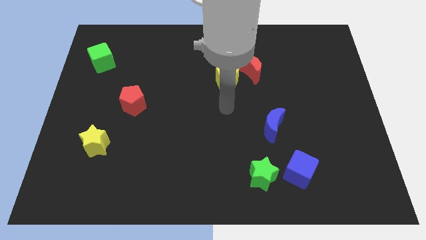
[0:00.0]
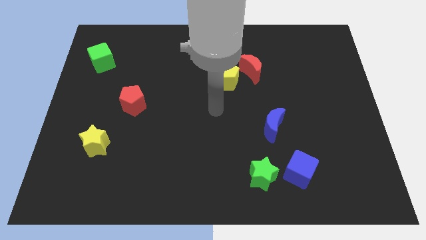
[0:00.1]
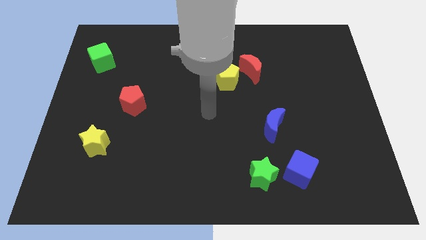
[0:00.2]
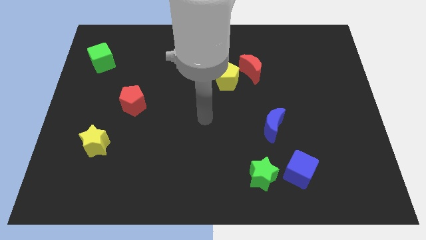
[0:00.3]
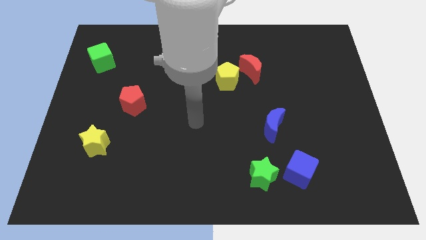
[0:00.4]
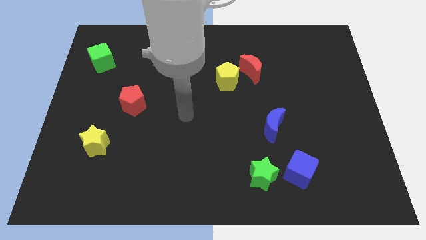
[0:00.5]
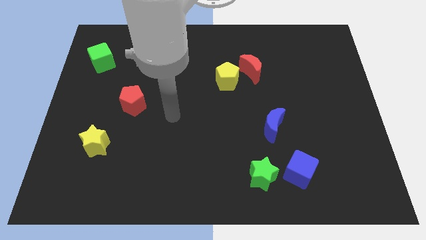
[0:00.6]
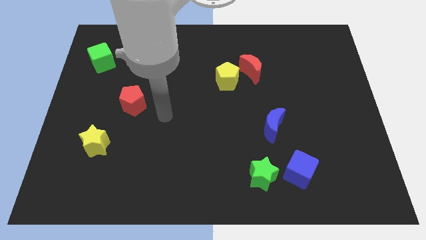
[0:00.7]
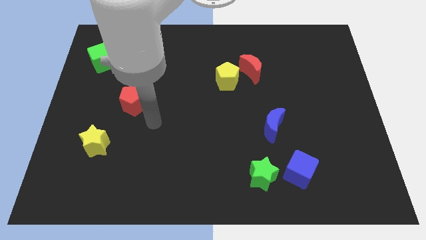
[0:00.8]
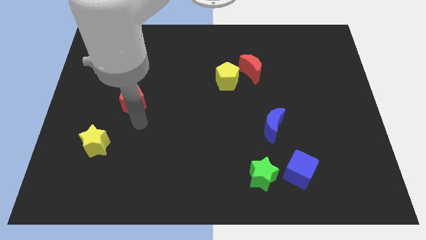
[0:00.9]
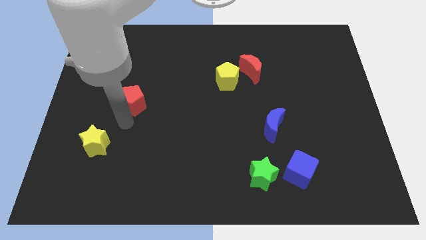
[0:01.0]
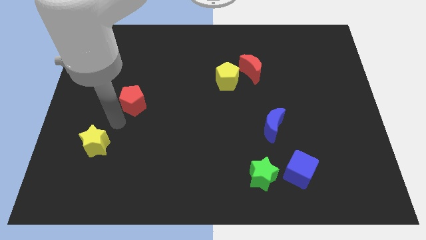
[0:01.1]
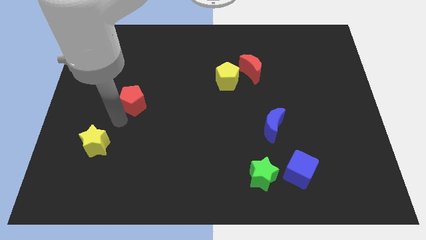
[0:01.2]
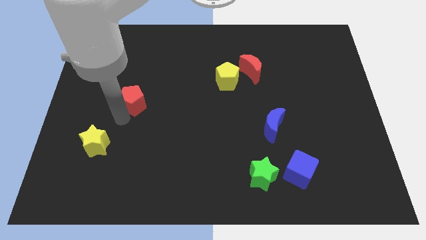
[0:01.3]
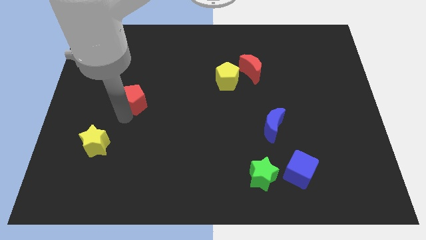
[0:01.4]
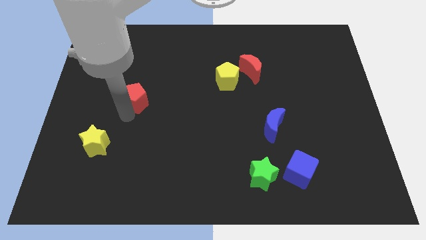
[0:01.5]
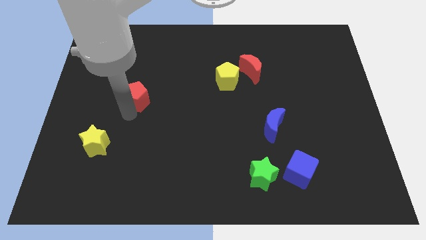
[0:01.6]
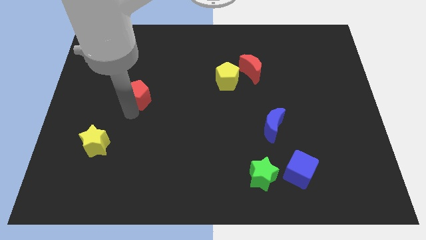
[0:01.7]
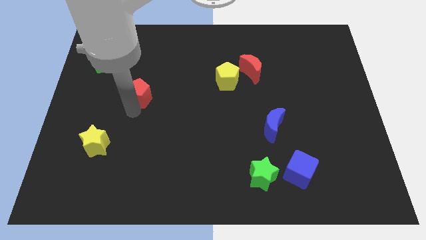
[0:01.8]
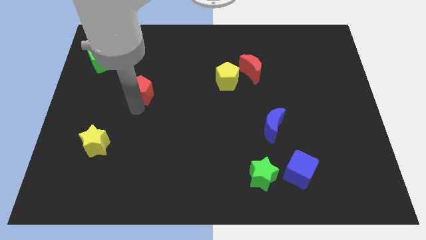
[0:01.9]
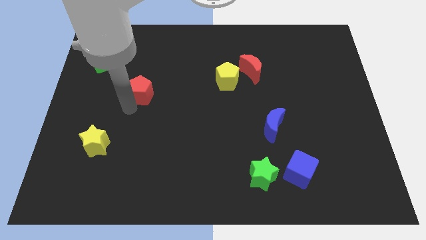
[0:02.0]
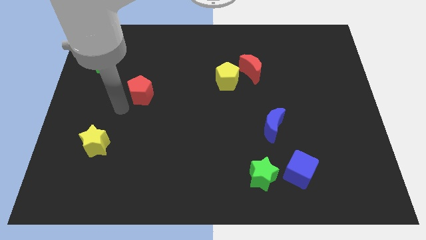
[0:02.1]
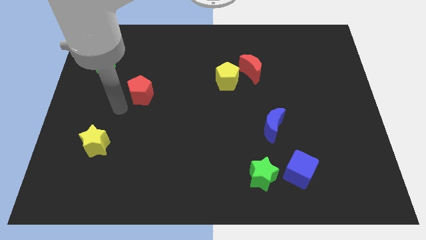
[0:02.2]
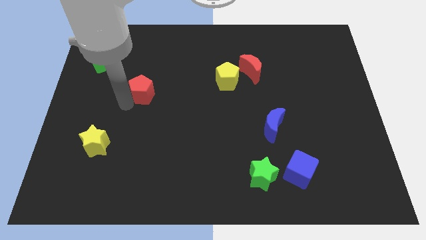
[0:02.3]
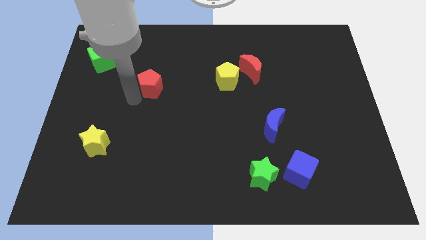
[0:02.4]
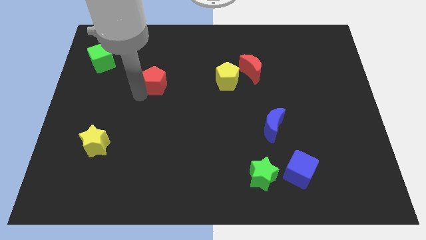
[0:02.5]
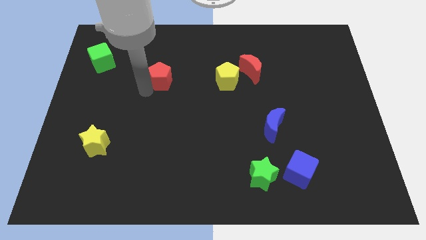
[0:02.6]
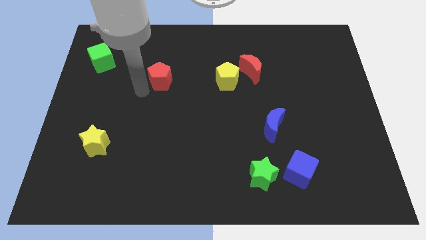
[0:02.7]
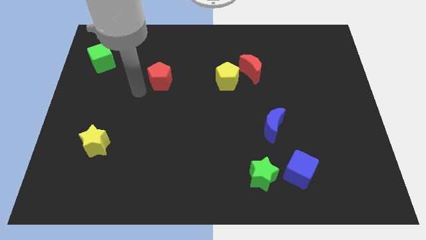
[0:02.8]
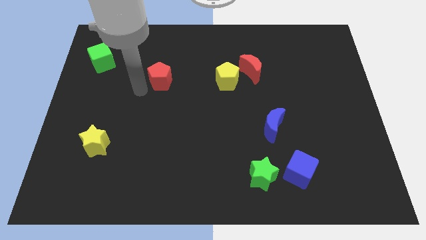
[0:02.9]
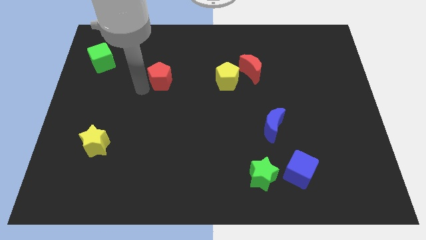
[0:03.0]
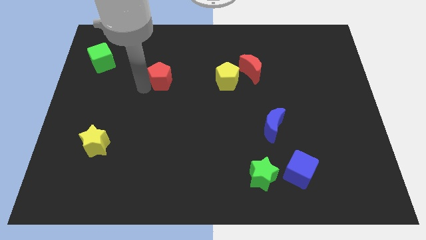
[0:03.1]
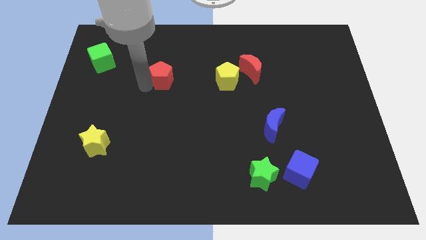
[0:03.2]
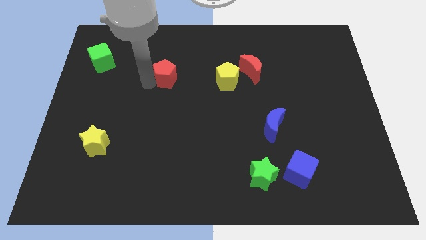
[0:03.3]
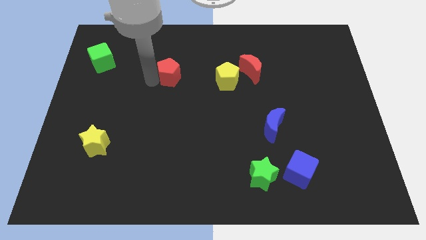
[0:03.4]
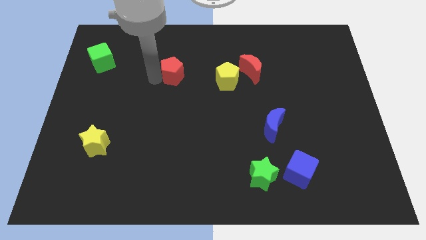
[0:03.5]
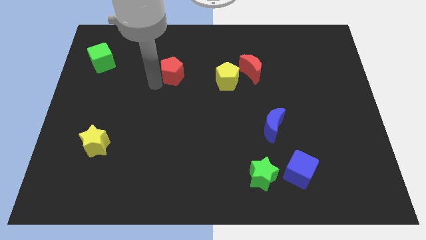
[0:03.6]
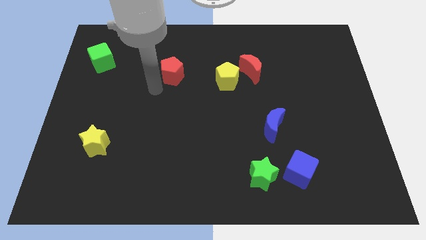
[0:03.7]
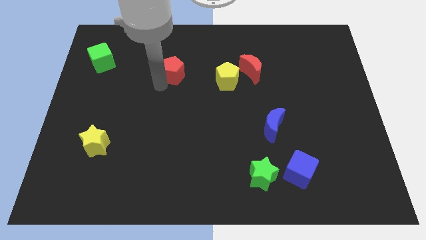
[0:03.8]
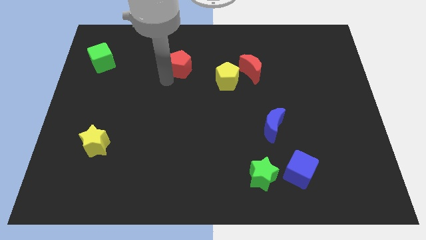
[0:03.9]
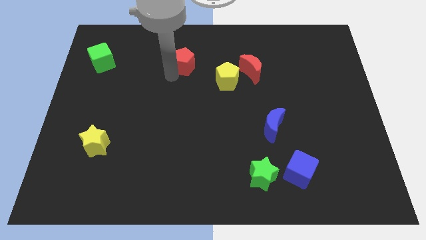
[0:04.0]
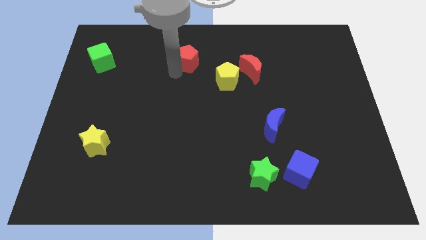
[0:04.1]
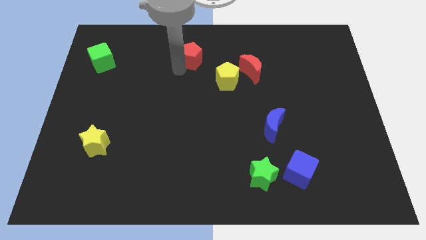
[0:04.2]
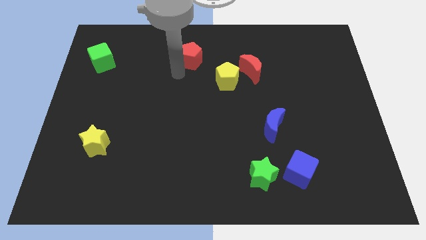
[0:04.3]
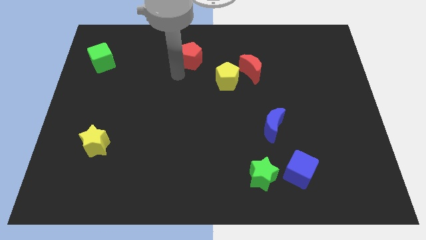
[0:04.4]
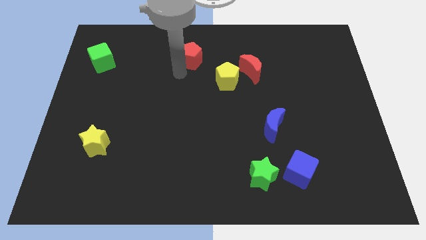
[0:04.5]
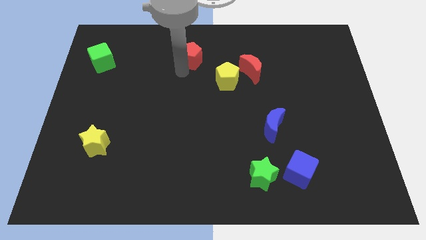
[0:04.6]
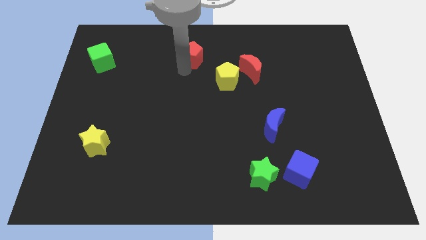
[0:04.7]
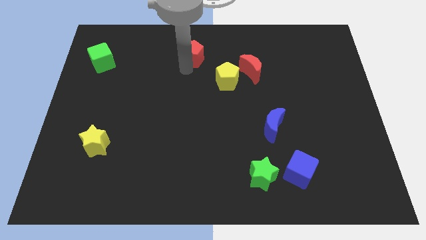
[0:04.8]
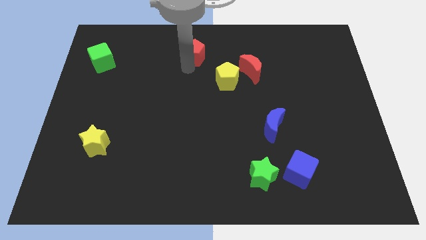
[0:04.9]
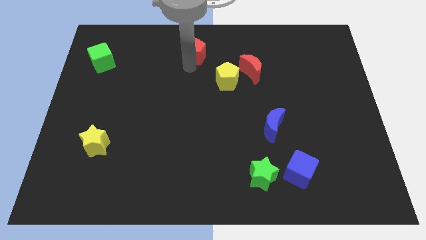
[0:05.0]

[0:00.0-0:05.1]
put the red pentagon to the towards your base

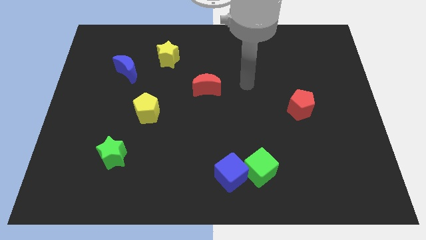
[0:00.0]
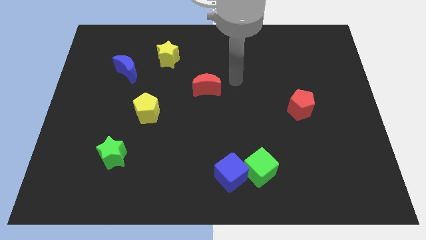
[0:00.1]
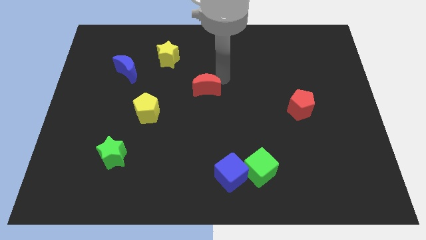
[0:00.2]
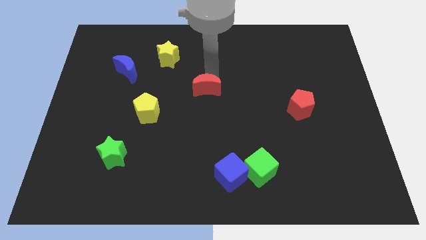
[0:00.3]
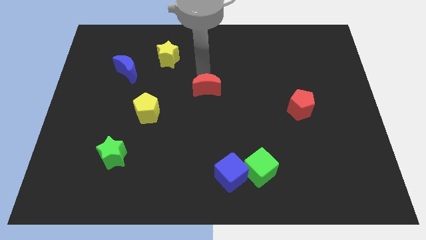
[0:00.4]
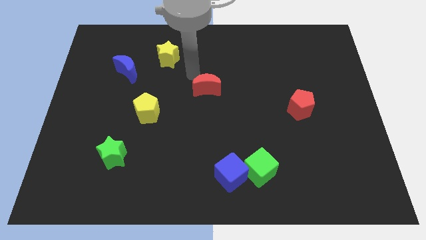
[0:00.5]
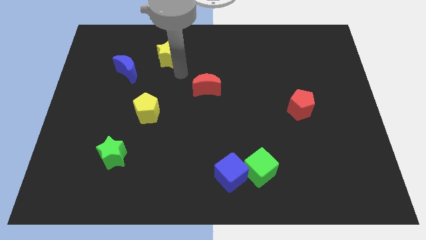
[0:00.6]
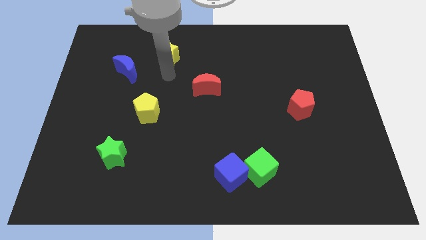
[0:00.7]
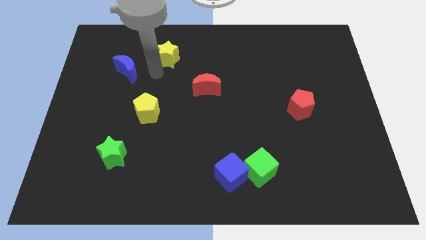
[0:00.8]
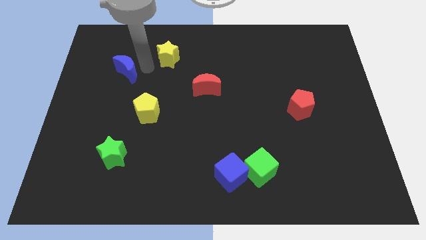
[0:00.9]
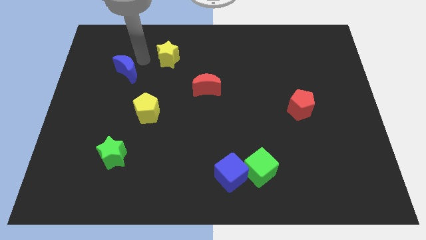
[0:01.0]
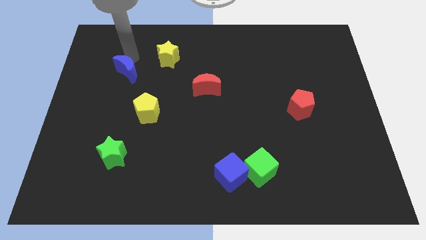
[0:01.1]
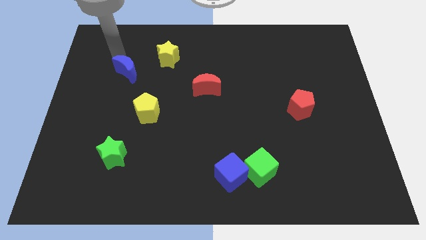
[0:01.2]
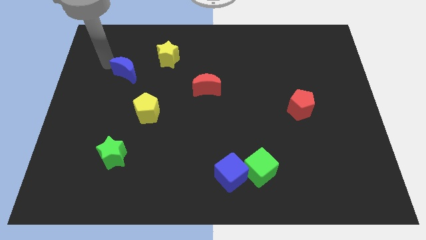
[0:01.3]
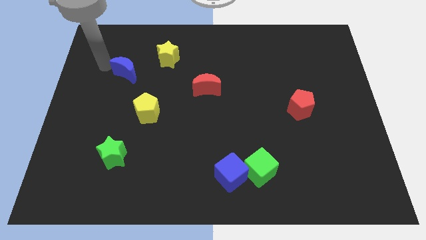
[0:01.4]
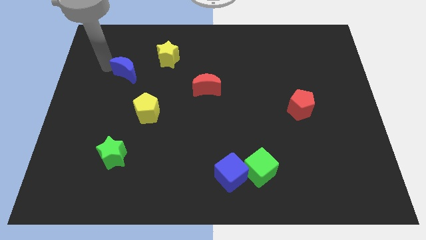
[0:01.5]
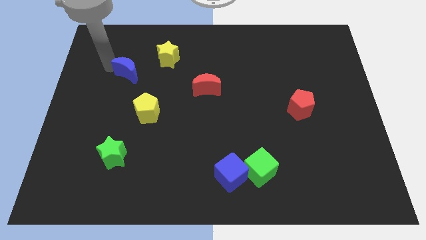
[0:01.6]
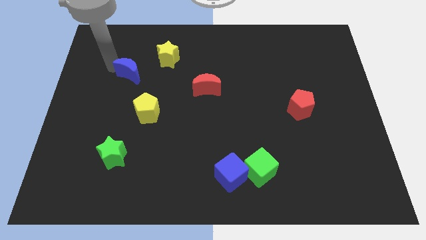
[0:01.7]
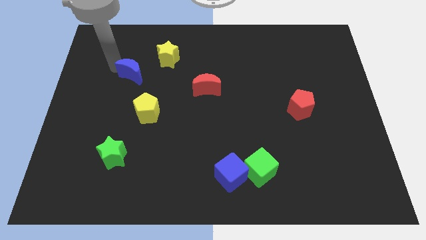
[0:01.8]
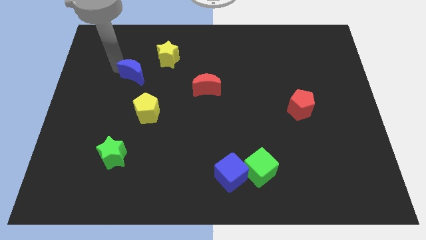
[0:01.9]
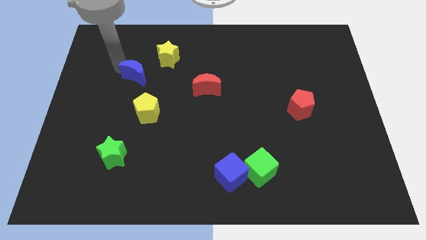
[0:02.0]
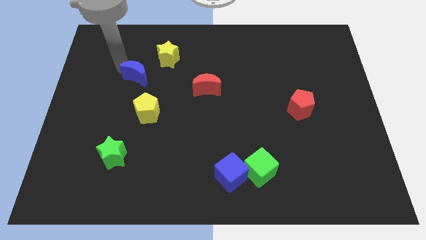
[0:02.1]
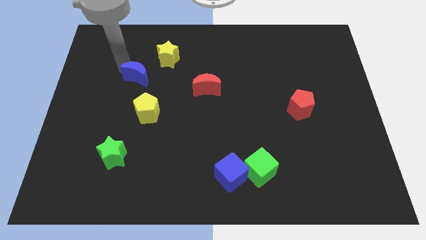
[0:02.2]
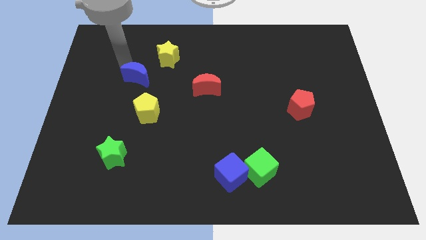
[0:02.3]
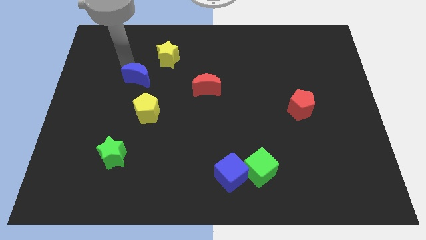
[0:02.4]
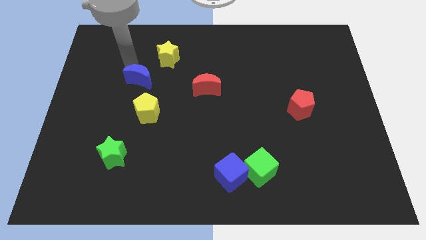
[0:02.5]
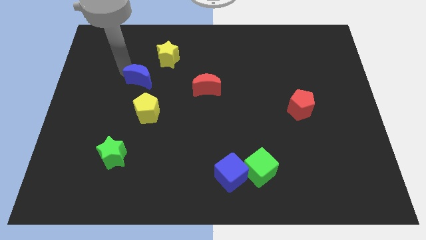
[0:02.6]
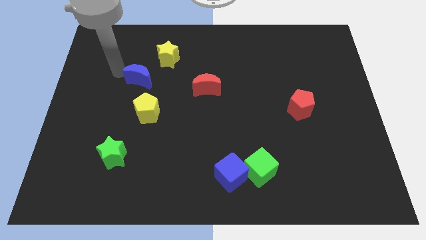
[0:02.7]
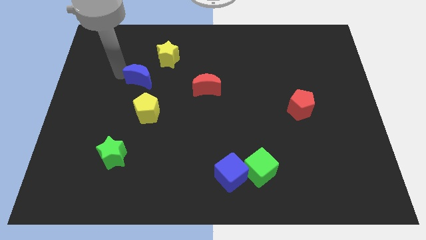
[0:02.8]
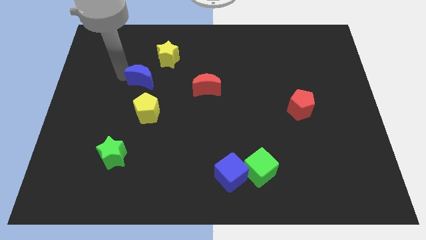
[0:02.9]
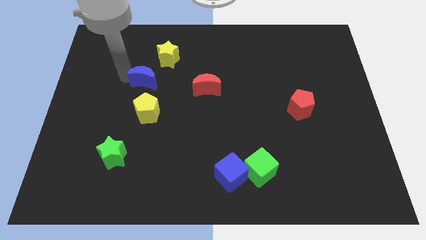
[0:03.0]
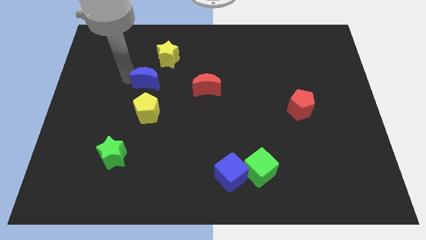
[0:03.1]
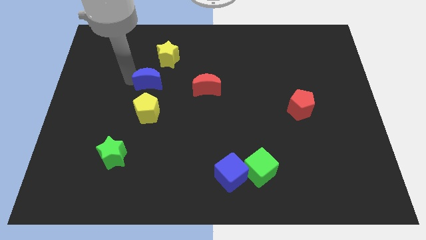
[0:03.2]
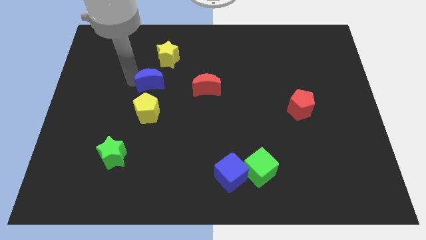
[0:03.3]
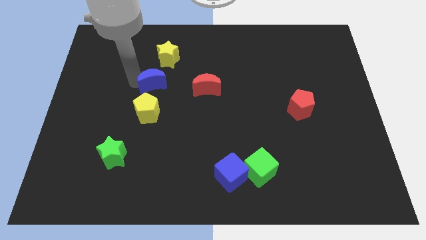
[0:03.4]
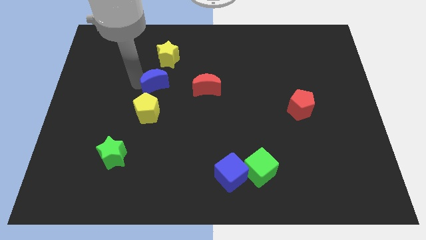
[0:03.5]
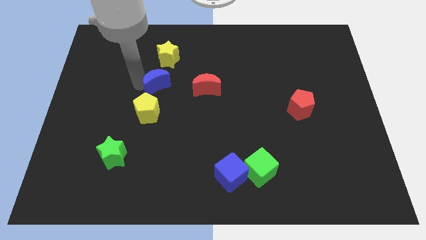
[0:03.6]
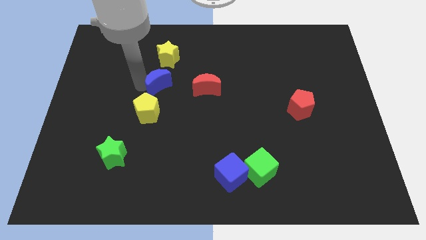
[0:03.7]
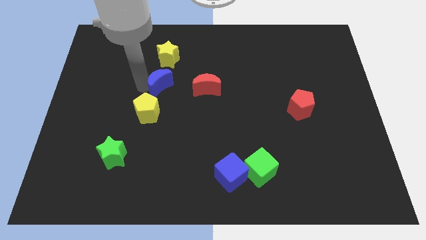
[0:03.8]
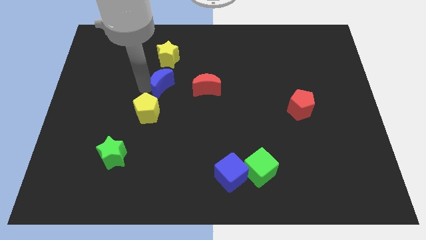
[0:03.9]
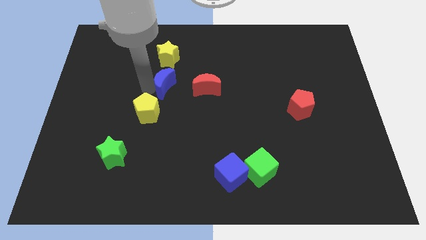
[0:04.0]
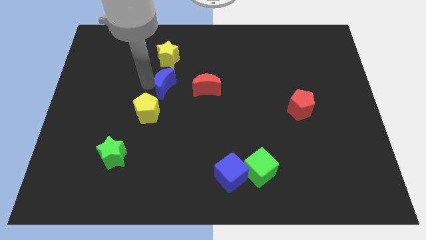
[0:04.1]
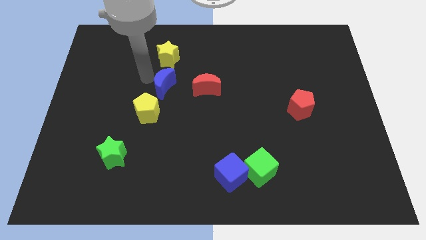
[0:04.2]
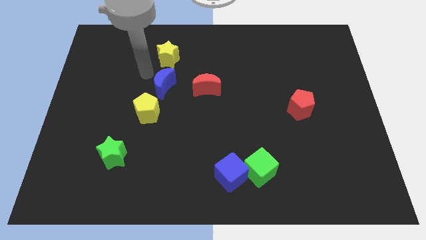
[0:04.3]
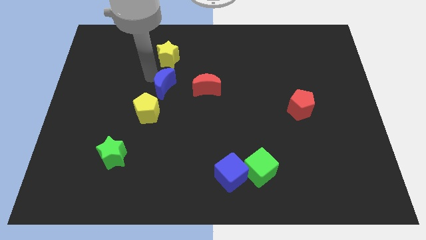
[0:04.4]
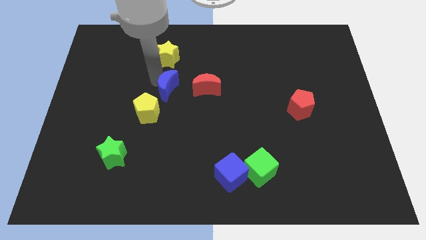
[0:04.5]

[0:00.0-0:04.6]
slide the blue moon to the center of the board
